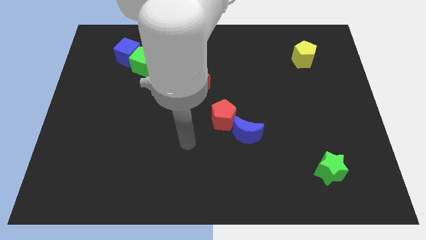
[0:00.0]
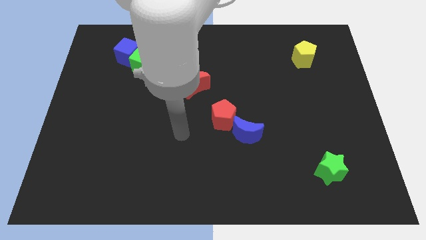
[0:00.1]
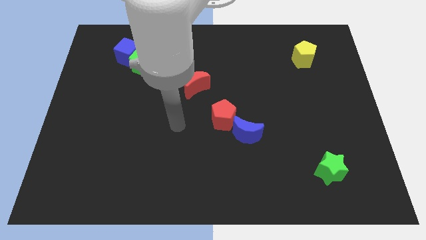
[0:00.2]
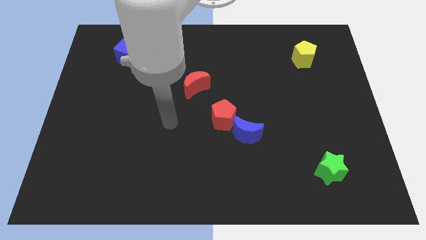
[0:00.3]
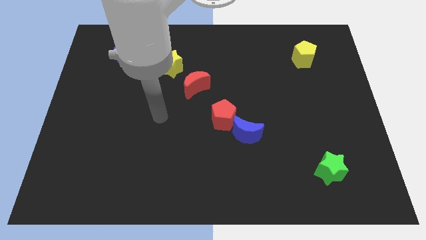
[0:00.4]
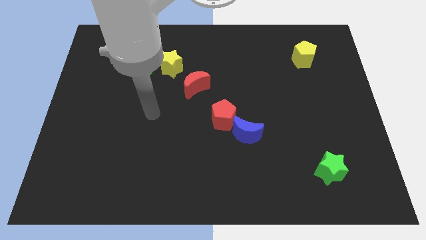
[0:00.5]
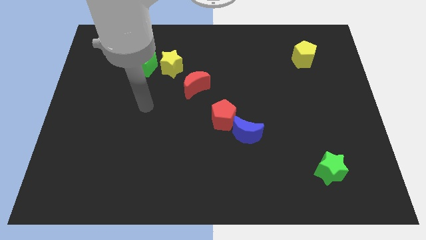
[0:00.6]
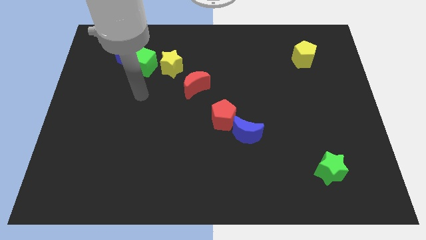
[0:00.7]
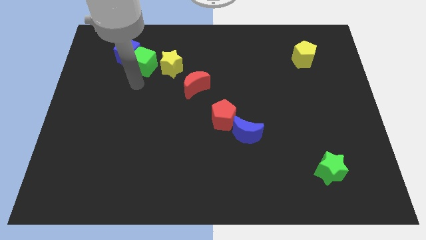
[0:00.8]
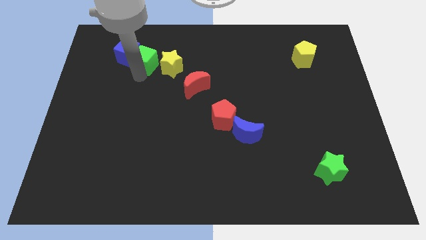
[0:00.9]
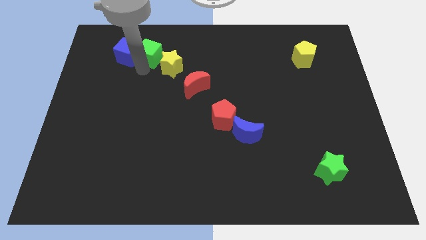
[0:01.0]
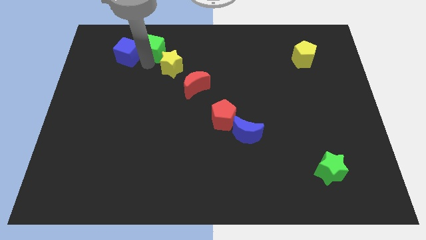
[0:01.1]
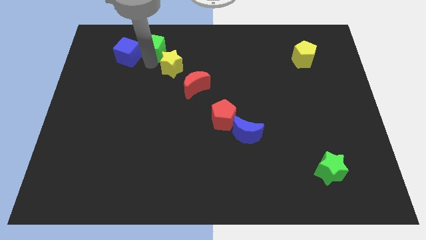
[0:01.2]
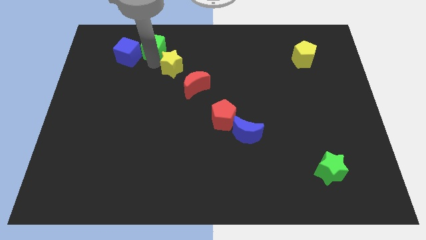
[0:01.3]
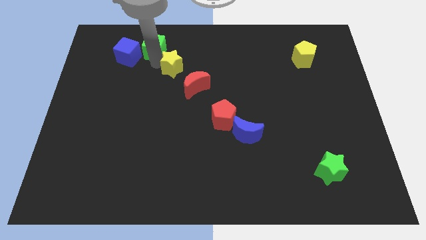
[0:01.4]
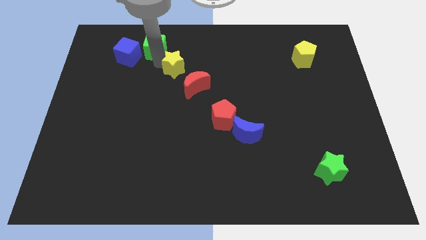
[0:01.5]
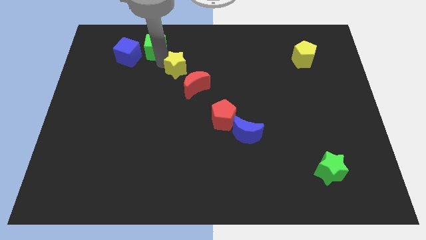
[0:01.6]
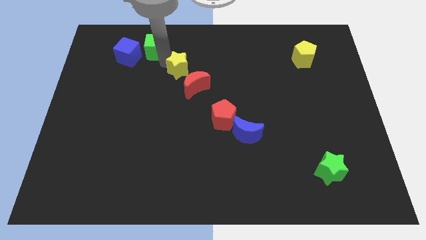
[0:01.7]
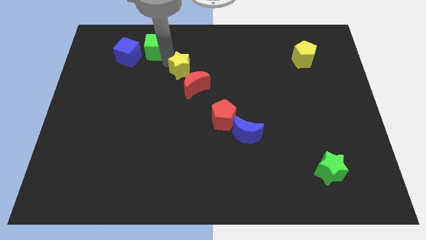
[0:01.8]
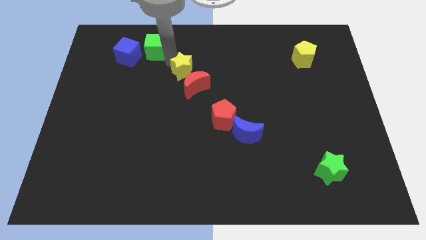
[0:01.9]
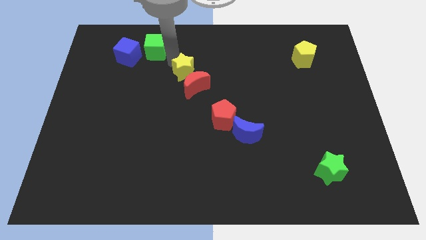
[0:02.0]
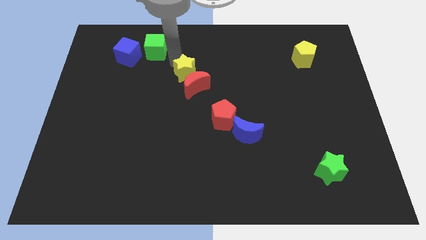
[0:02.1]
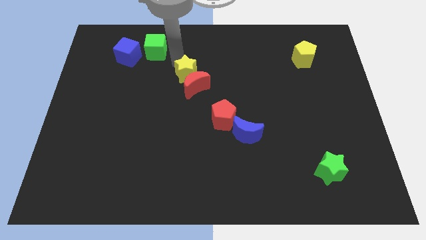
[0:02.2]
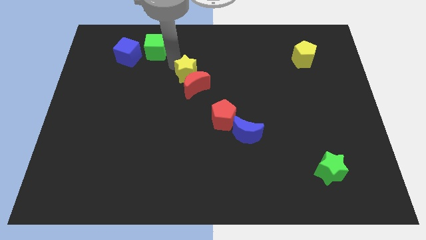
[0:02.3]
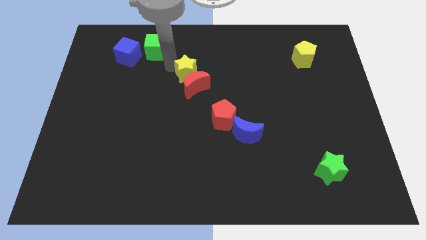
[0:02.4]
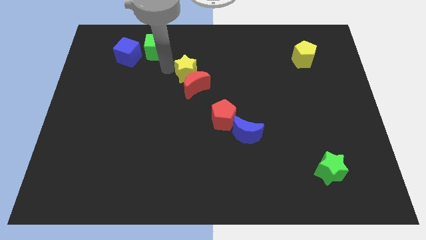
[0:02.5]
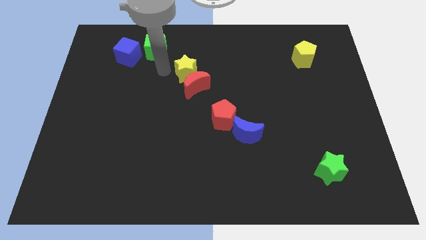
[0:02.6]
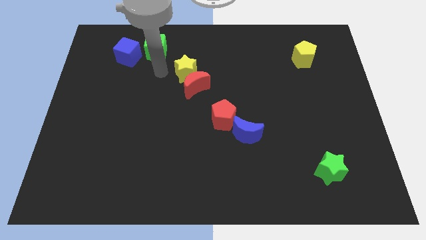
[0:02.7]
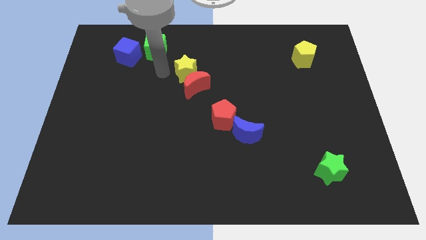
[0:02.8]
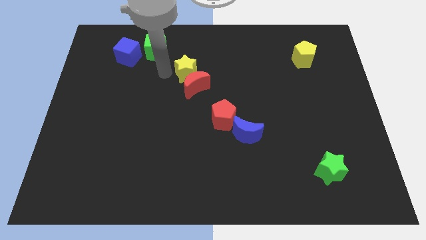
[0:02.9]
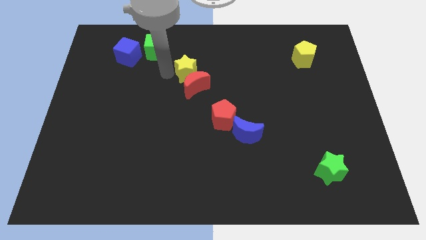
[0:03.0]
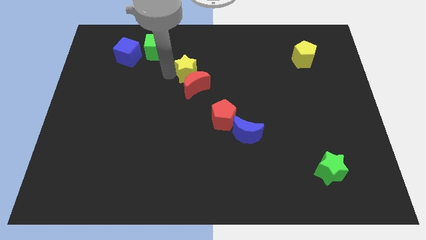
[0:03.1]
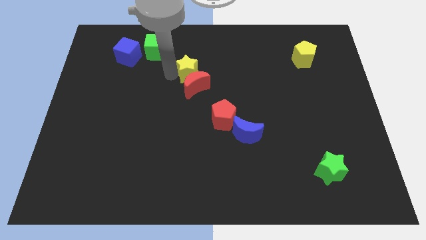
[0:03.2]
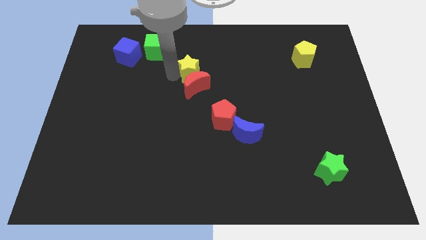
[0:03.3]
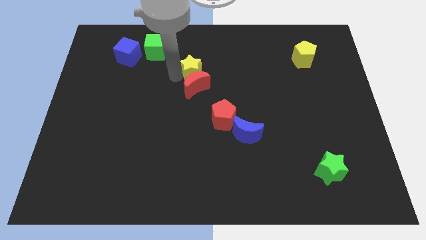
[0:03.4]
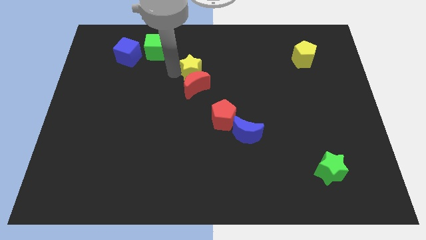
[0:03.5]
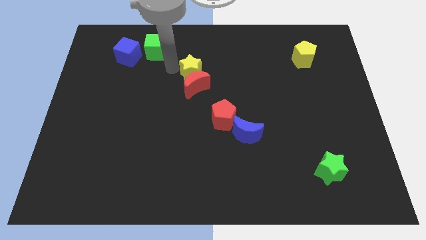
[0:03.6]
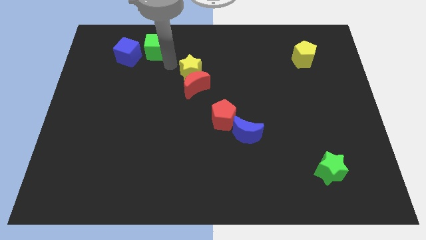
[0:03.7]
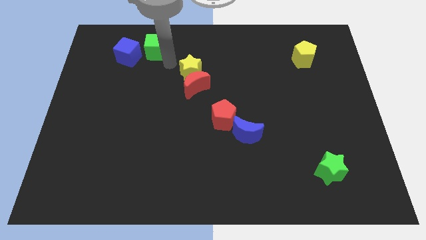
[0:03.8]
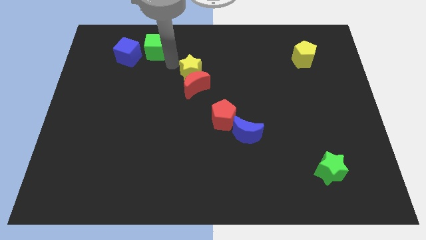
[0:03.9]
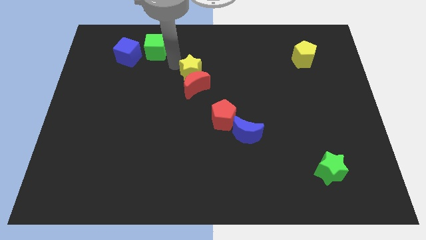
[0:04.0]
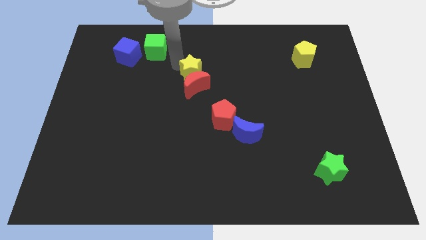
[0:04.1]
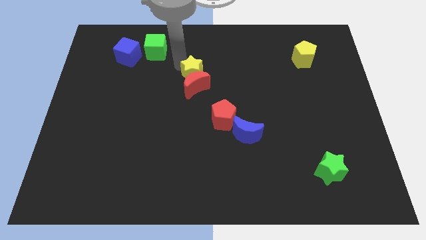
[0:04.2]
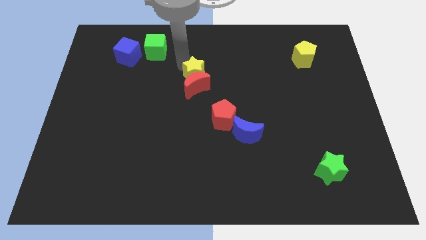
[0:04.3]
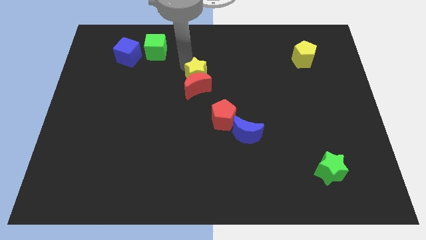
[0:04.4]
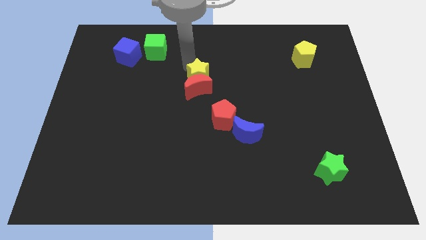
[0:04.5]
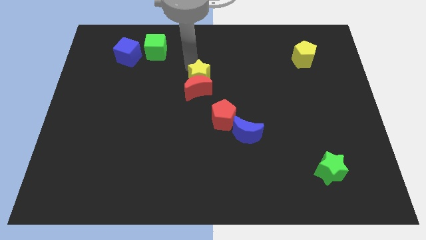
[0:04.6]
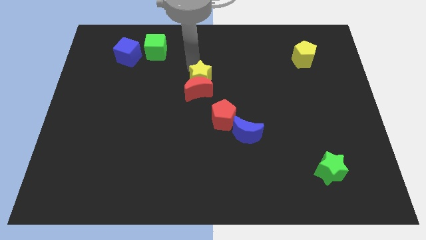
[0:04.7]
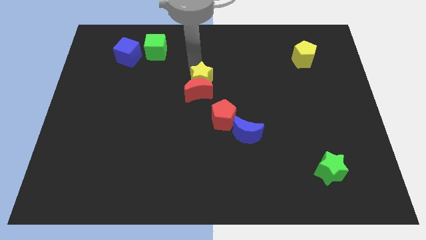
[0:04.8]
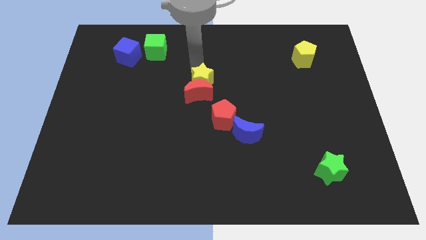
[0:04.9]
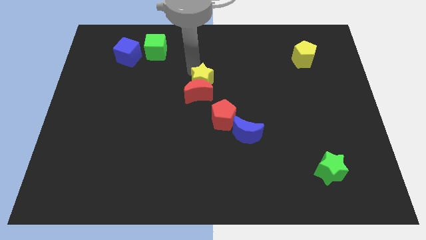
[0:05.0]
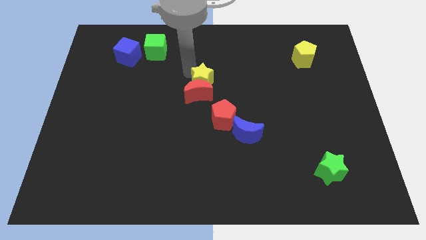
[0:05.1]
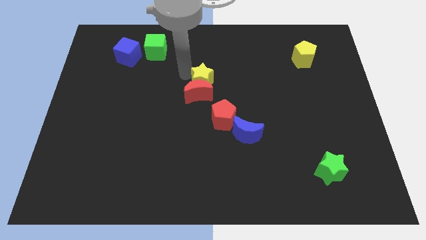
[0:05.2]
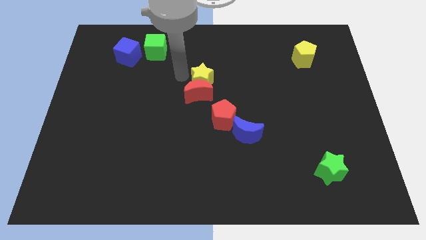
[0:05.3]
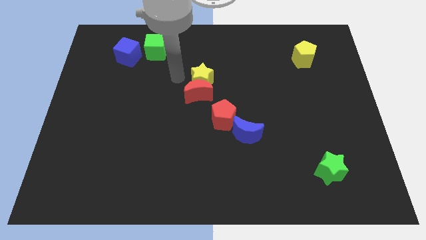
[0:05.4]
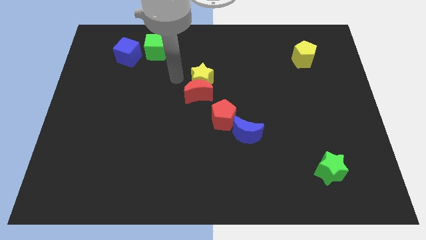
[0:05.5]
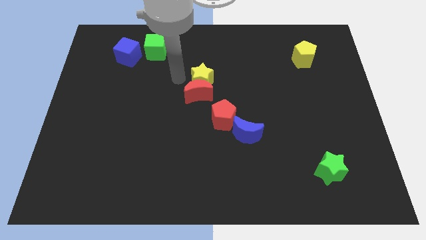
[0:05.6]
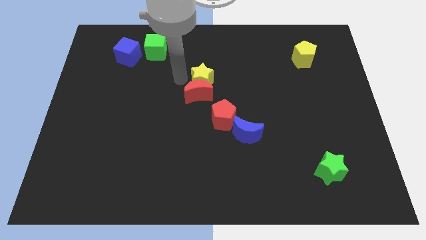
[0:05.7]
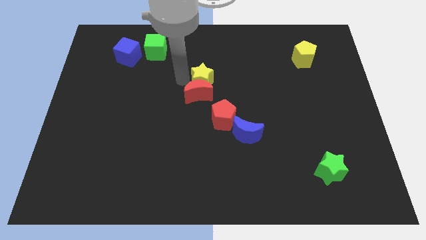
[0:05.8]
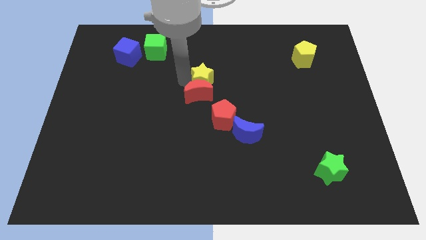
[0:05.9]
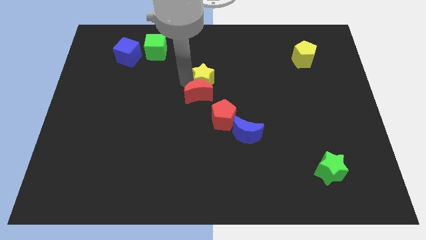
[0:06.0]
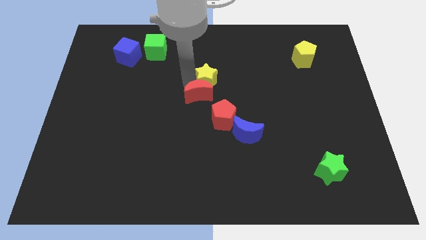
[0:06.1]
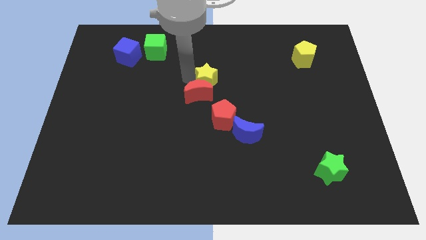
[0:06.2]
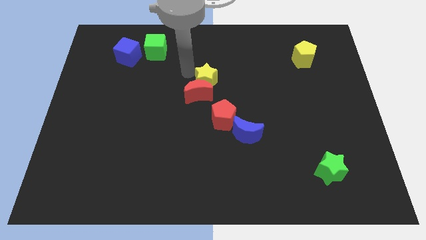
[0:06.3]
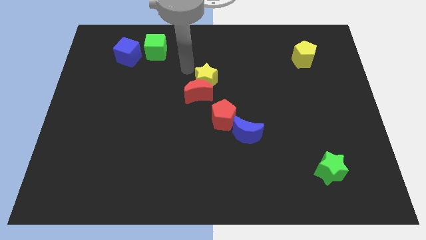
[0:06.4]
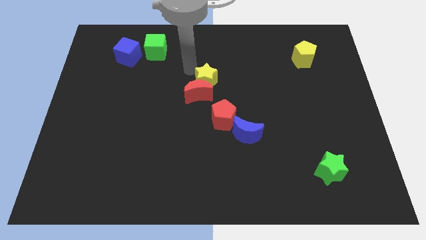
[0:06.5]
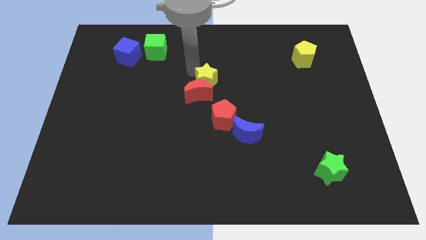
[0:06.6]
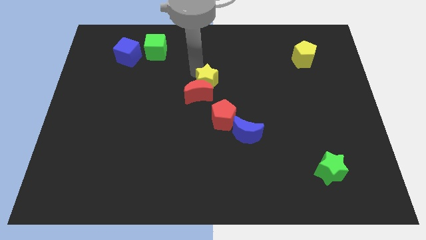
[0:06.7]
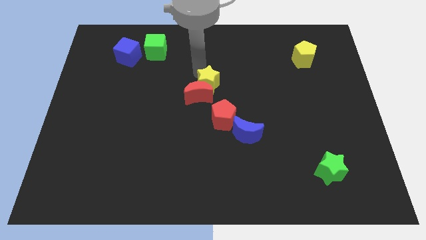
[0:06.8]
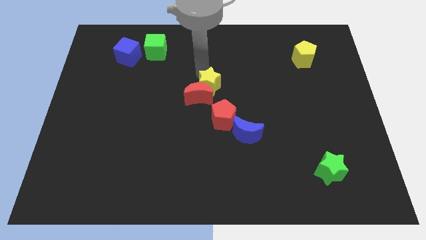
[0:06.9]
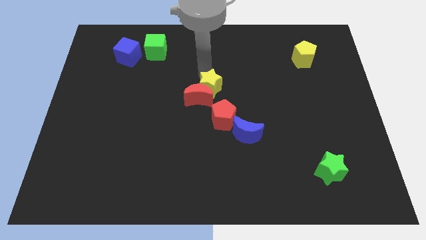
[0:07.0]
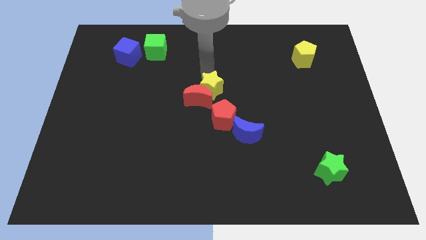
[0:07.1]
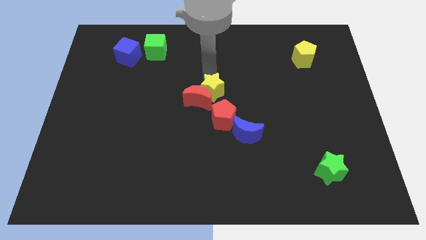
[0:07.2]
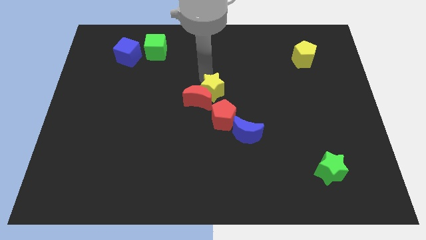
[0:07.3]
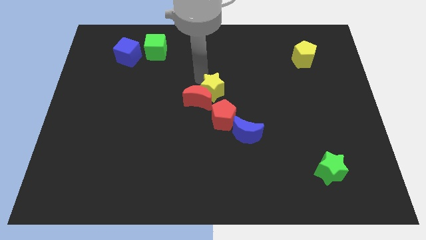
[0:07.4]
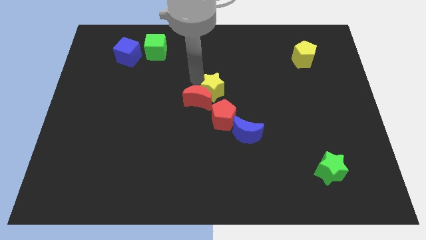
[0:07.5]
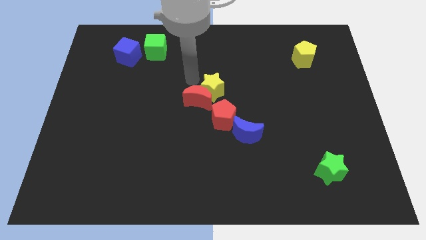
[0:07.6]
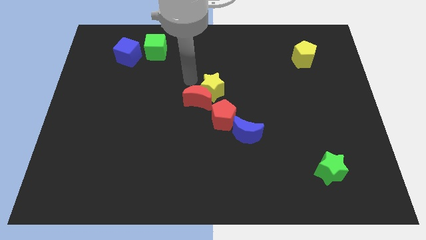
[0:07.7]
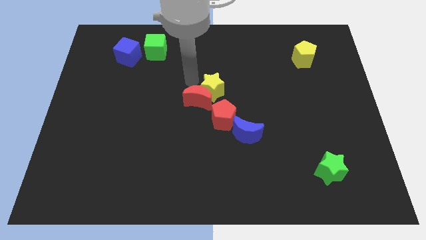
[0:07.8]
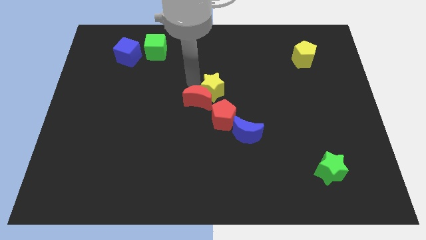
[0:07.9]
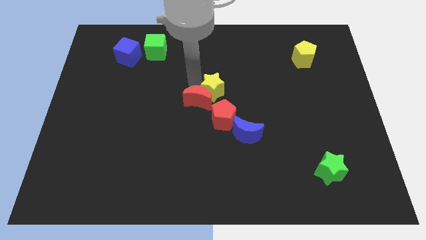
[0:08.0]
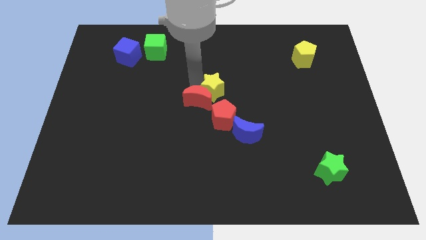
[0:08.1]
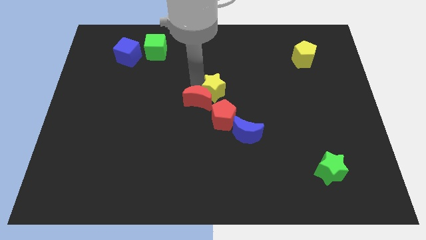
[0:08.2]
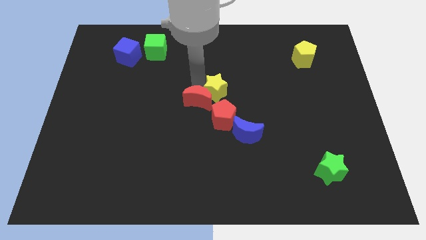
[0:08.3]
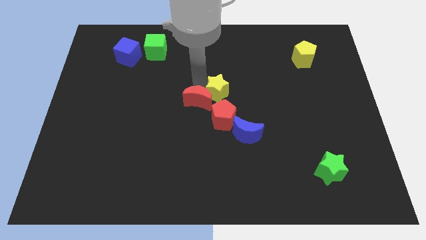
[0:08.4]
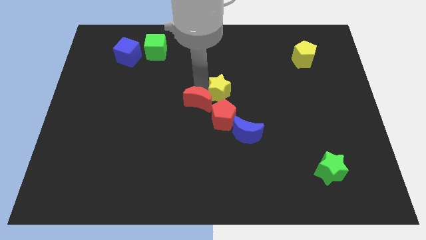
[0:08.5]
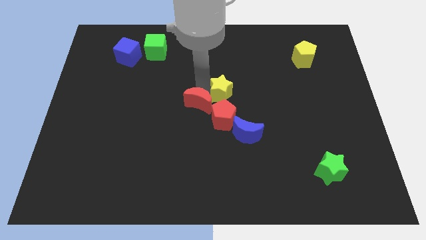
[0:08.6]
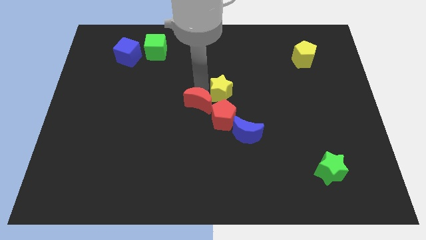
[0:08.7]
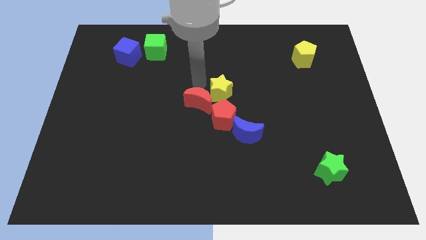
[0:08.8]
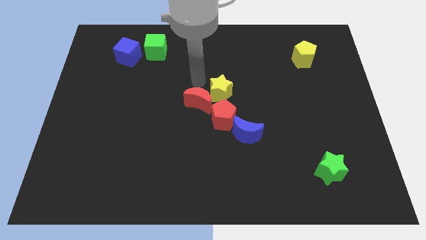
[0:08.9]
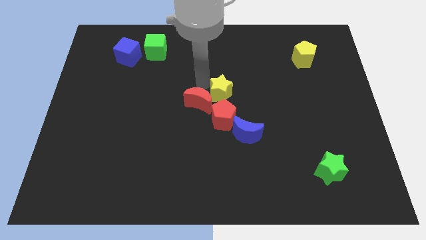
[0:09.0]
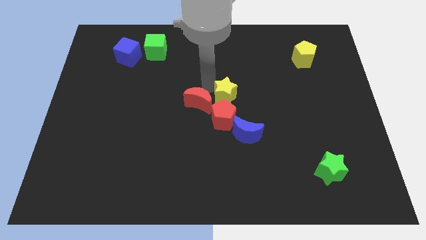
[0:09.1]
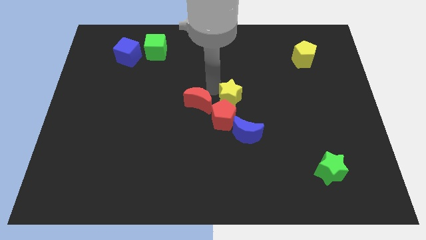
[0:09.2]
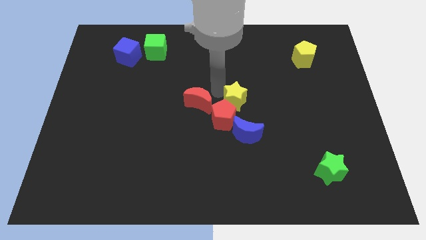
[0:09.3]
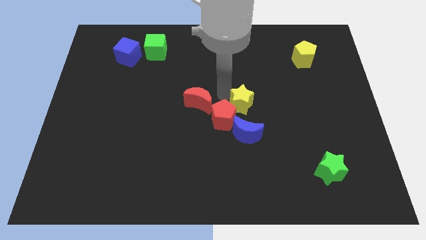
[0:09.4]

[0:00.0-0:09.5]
move the yellow star downwards and right
